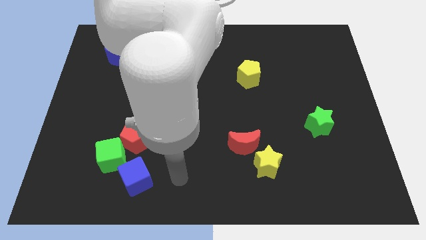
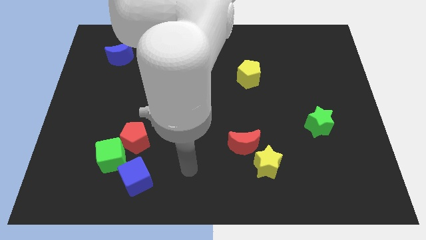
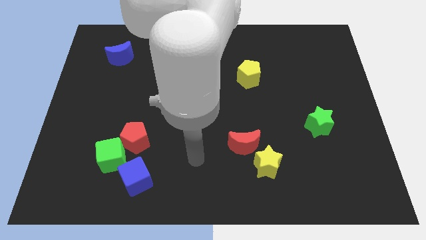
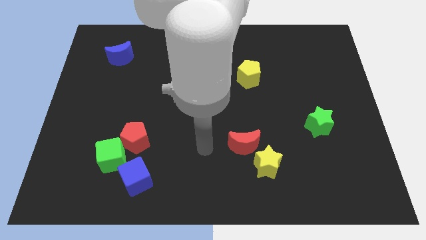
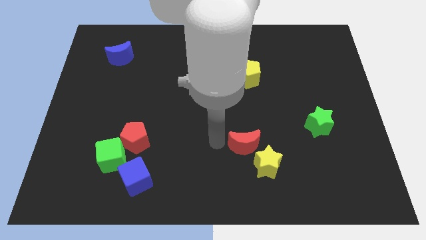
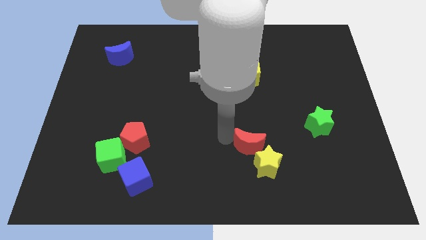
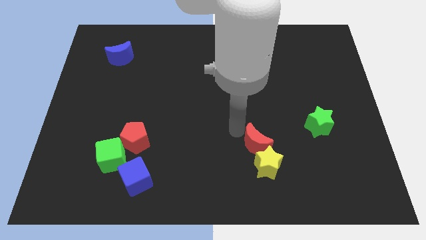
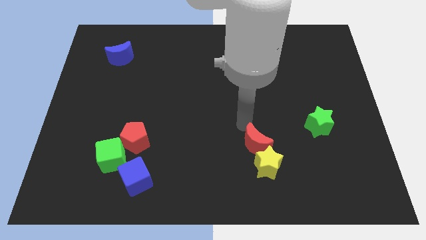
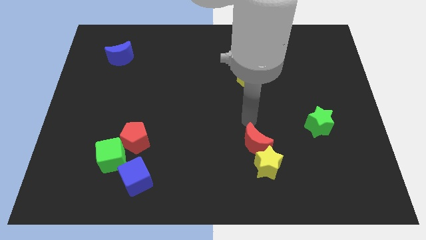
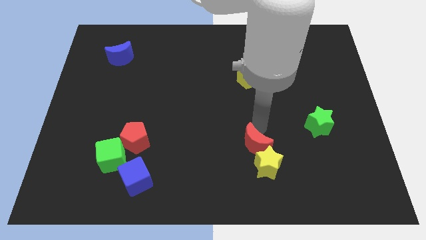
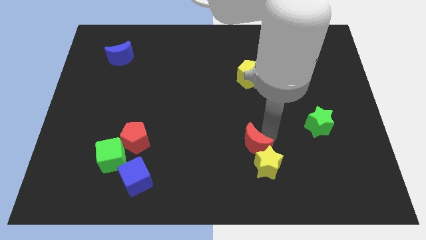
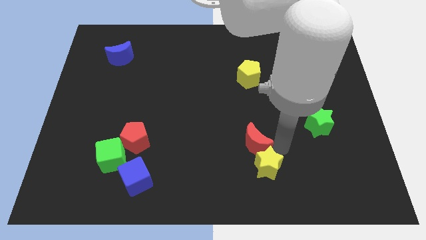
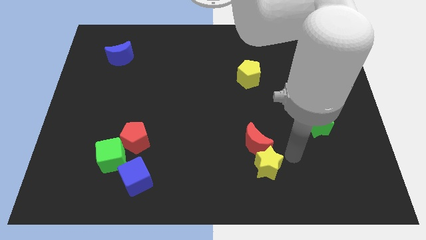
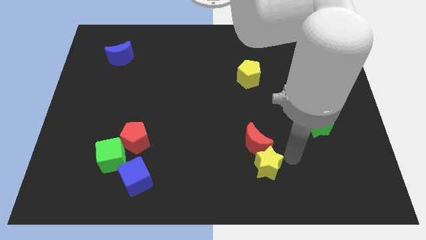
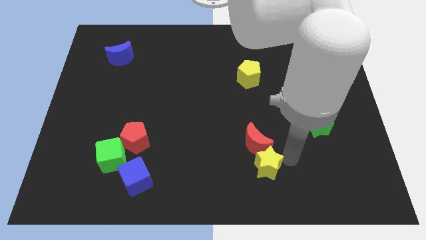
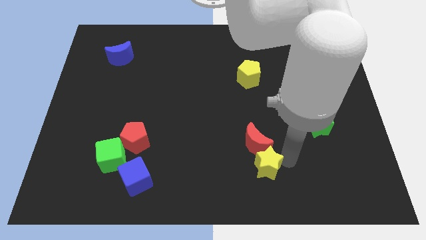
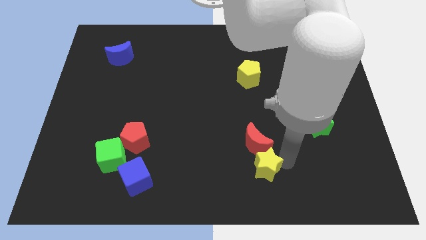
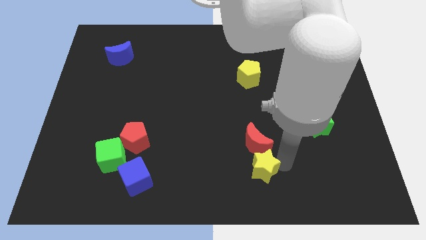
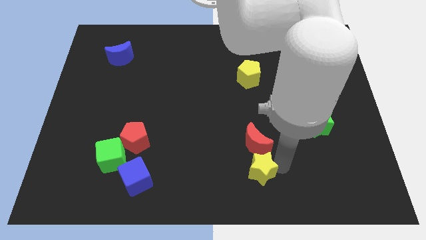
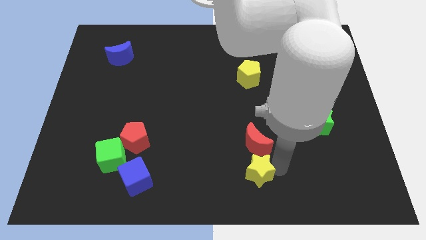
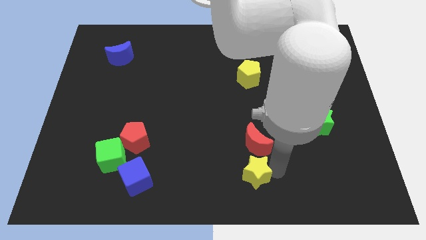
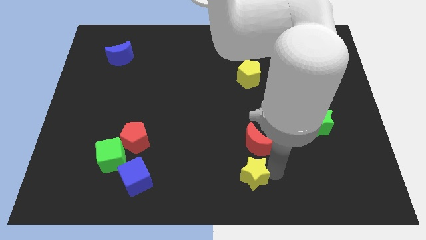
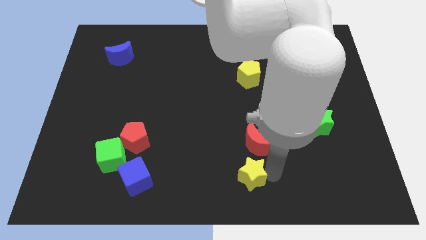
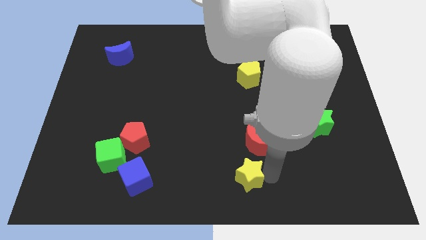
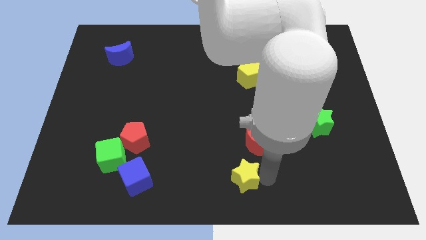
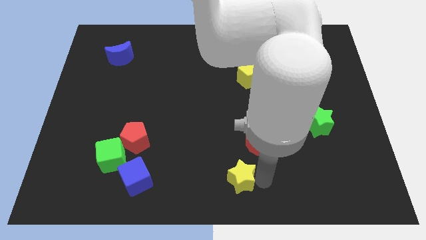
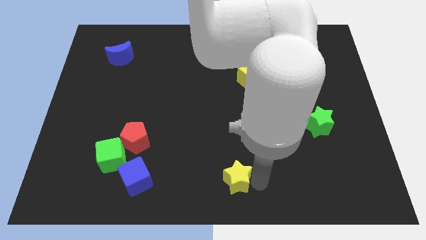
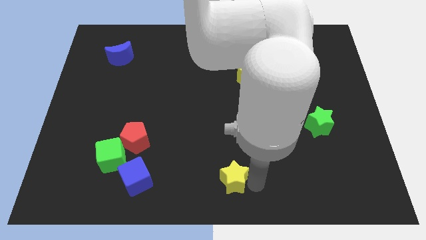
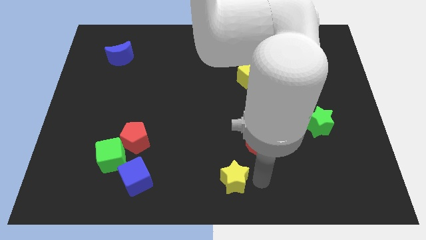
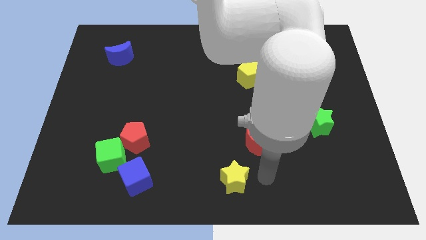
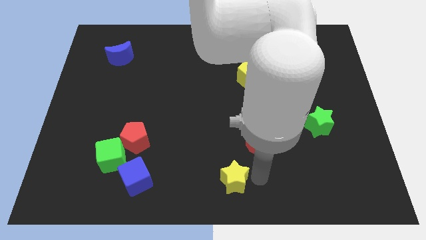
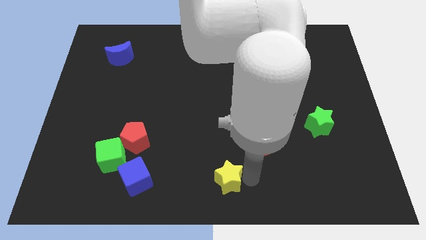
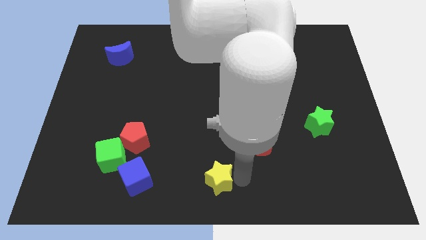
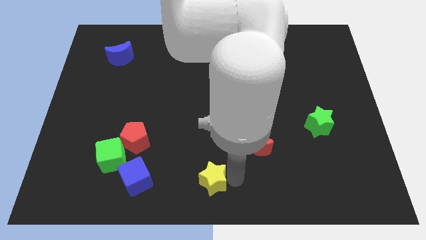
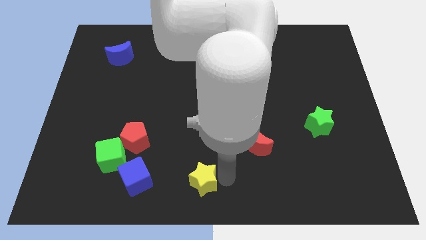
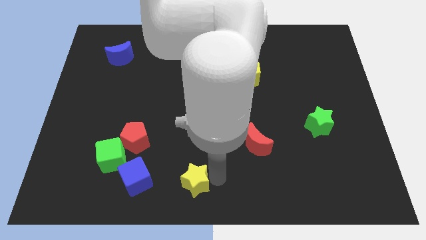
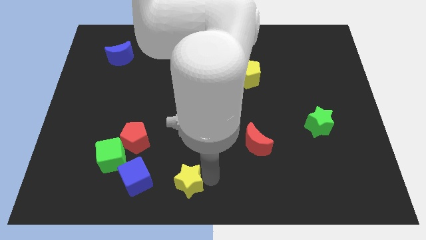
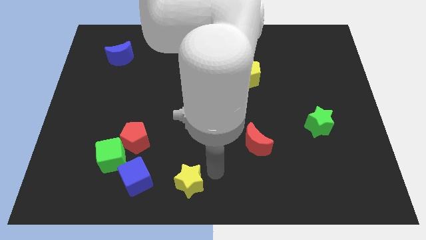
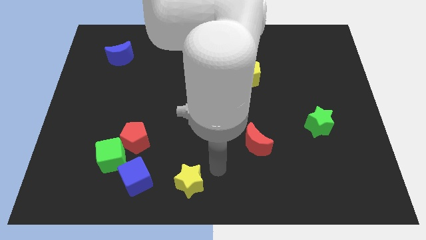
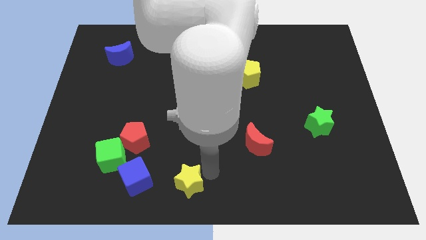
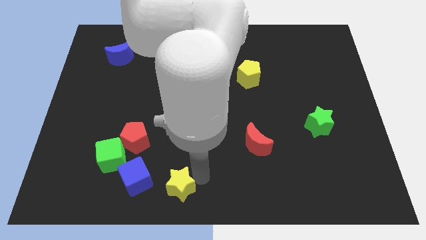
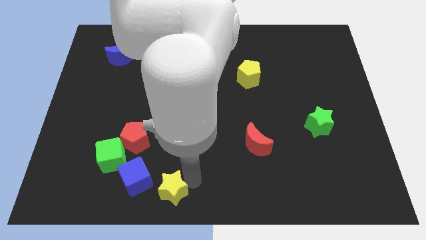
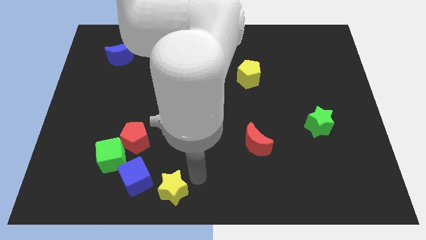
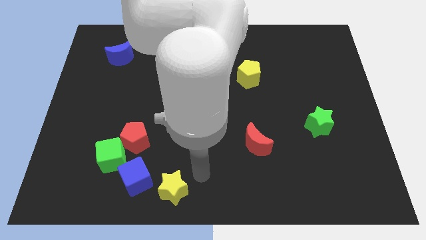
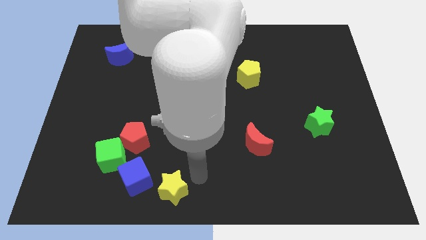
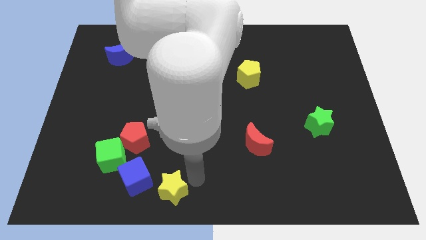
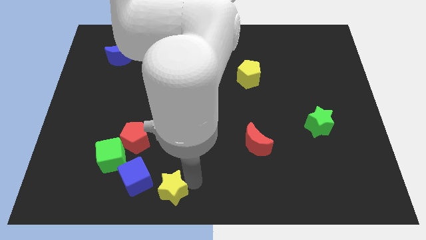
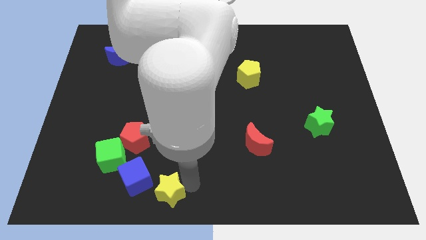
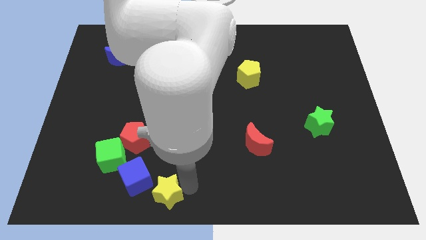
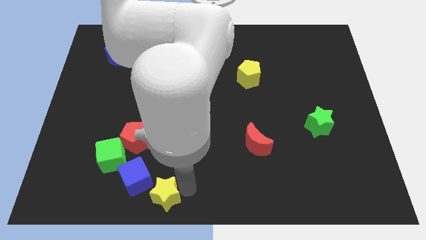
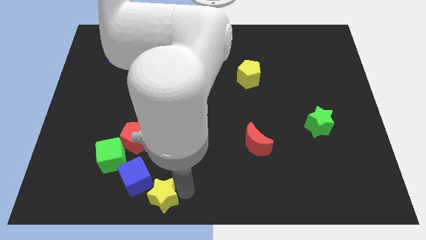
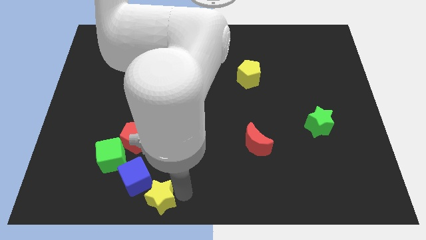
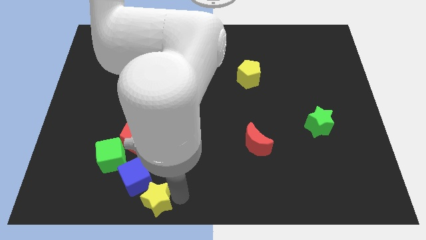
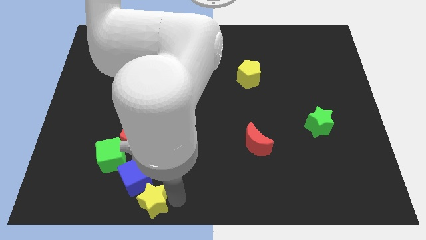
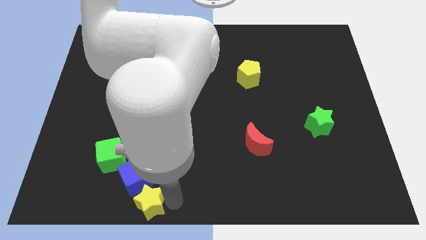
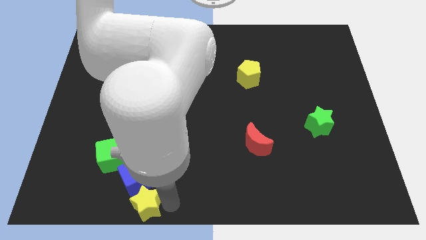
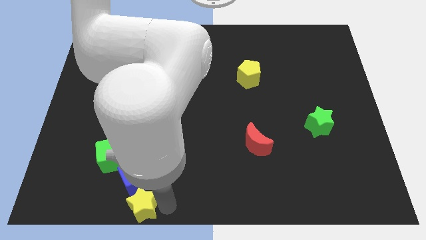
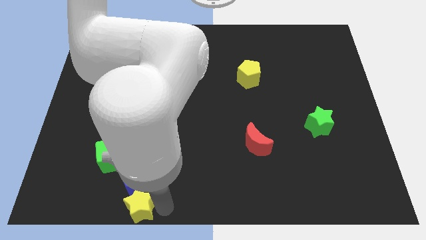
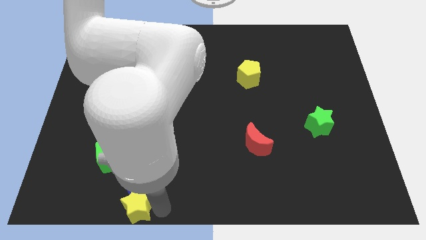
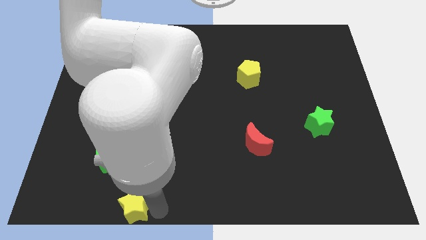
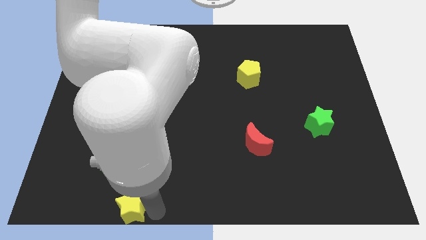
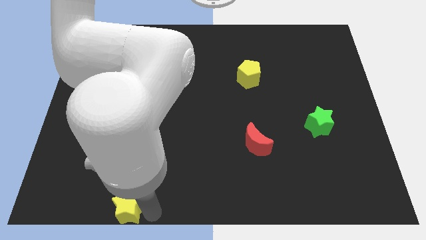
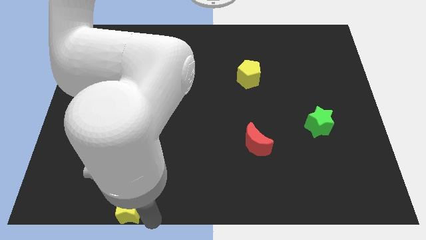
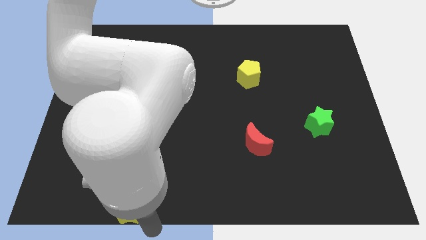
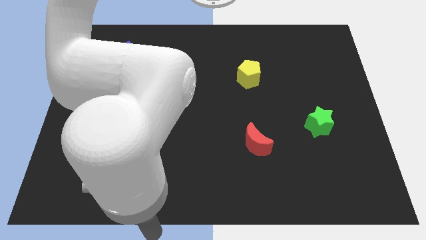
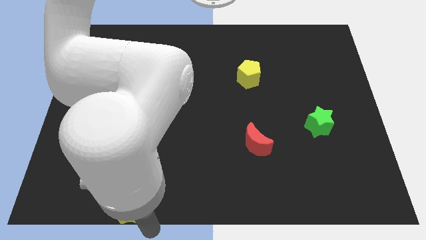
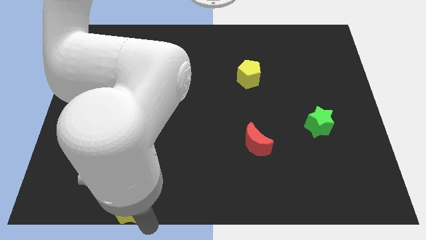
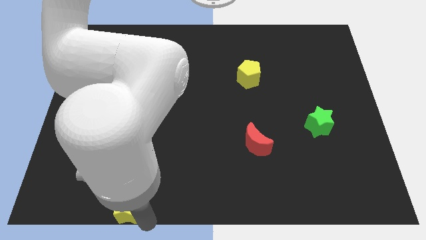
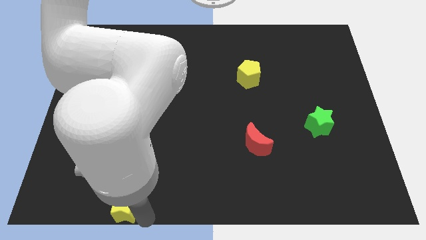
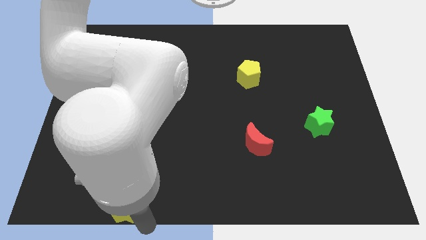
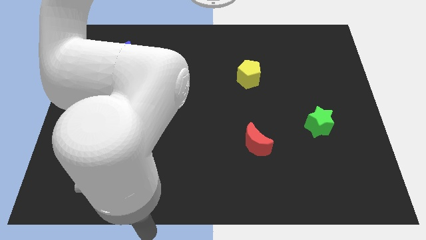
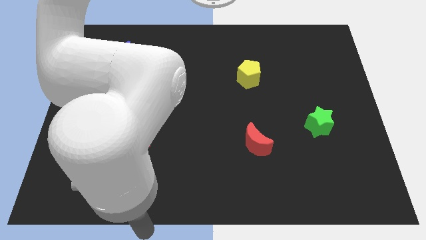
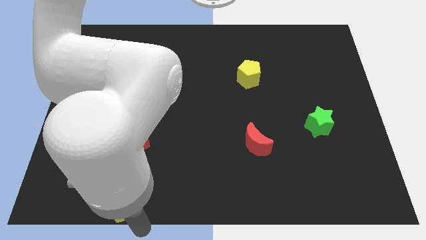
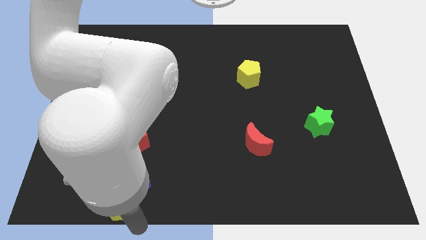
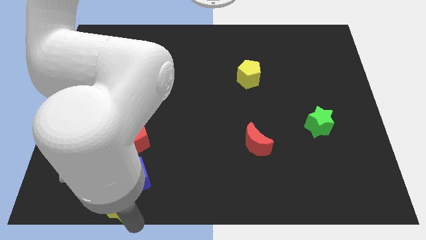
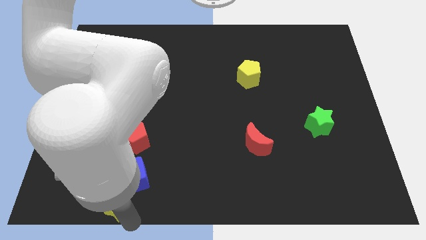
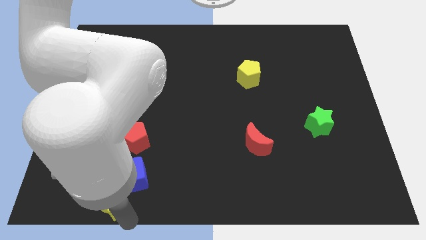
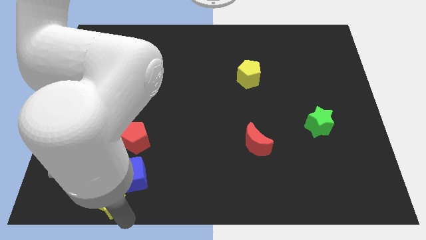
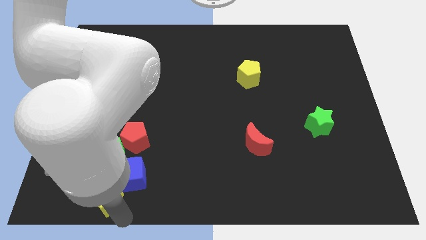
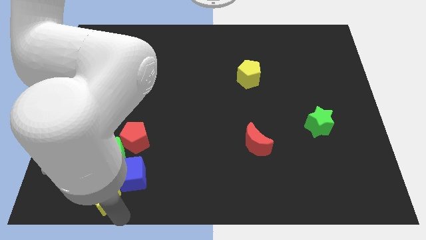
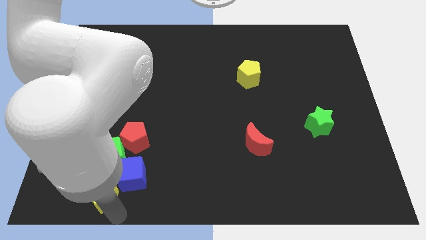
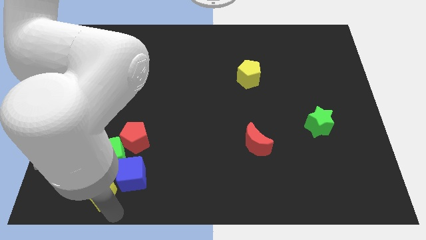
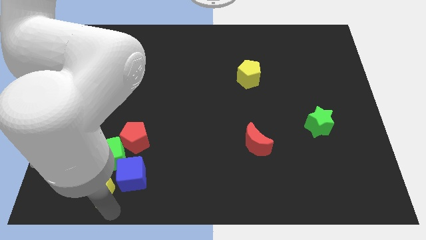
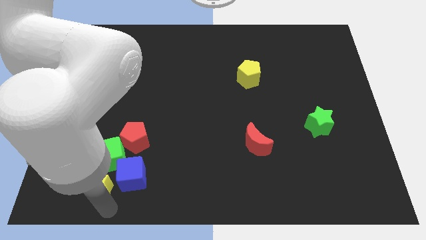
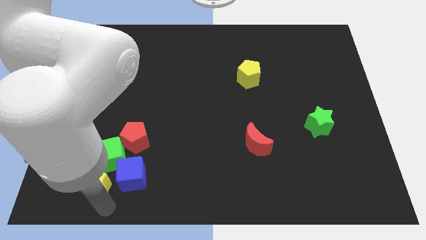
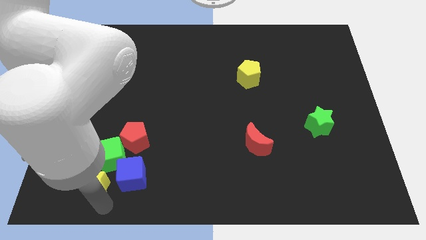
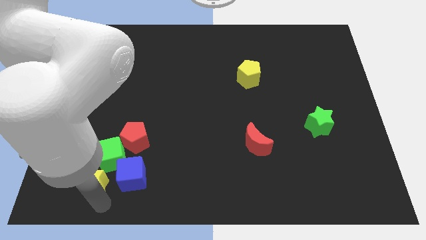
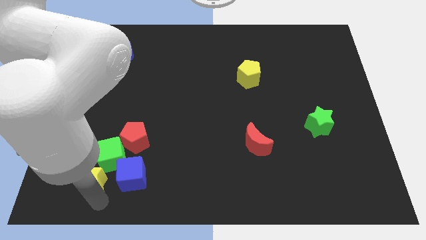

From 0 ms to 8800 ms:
move the yellow star diagonally down and to the left of the red pentagon
